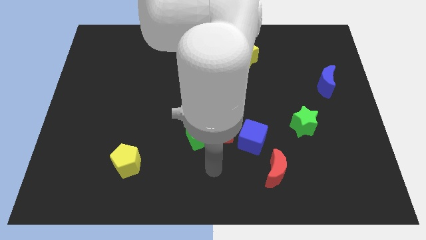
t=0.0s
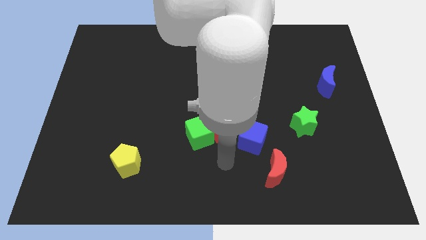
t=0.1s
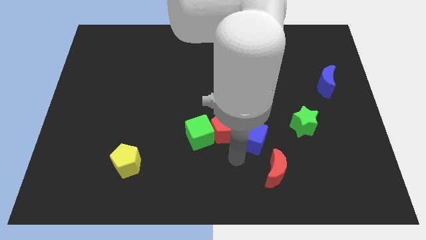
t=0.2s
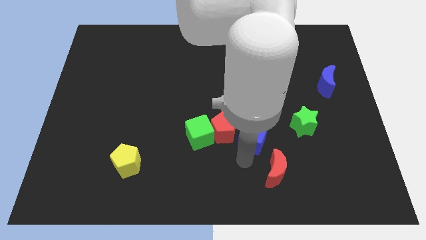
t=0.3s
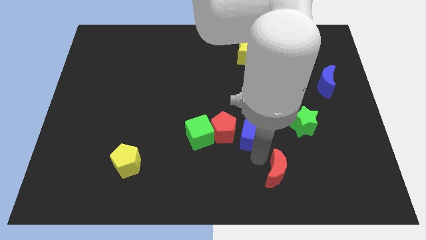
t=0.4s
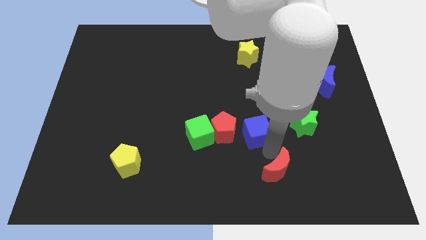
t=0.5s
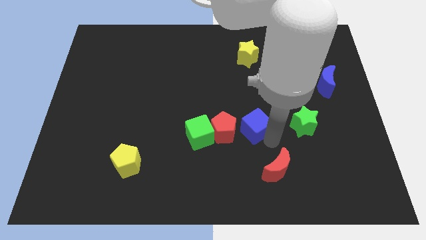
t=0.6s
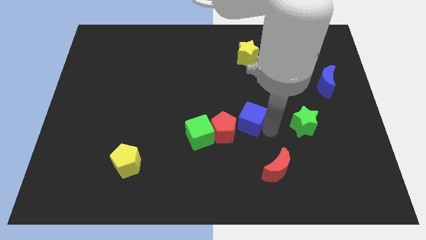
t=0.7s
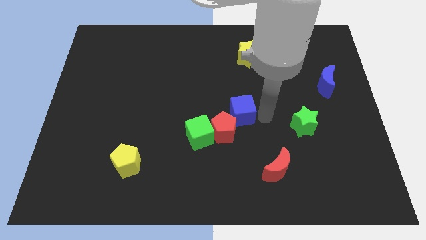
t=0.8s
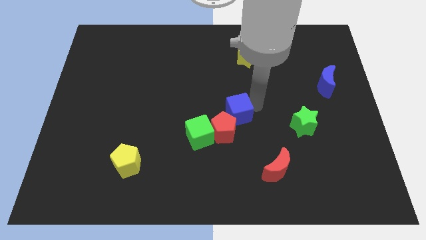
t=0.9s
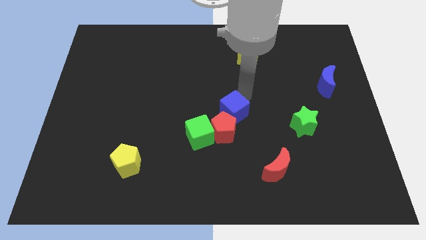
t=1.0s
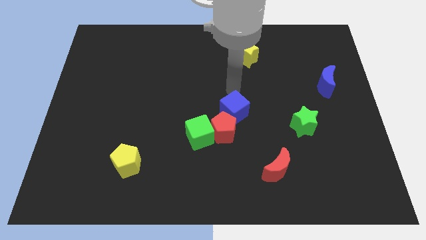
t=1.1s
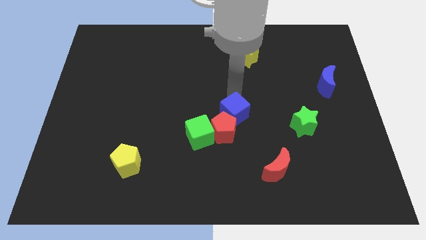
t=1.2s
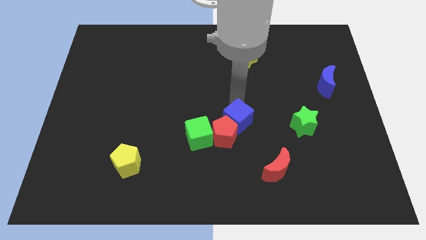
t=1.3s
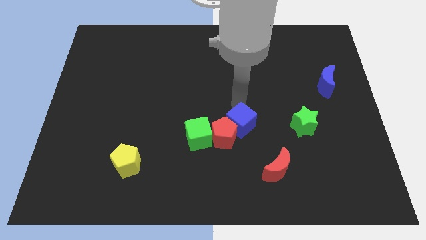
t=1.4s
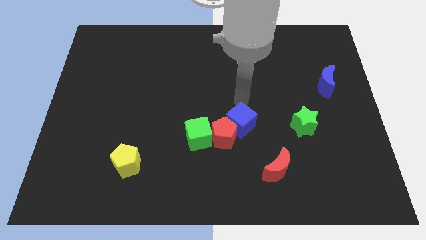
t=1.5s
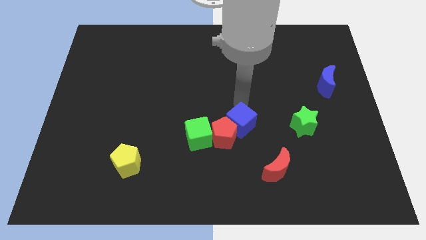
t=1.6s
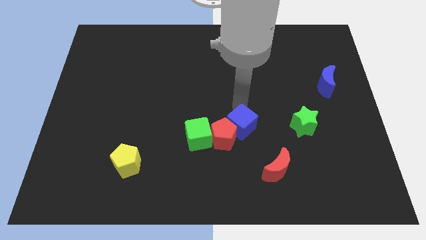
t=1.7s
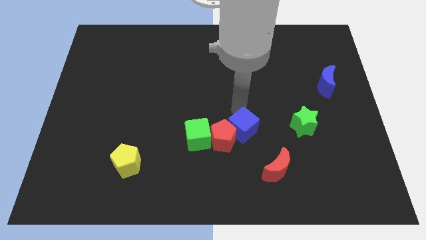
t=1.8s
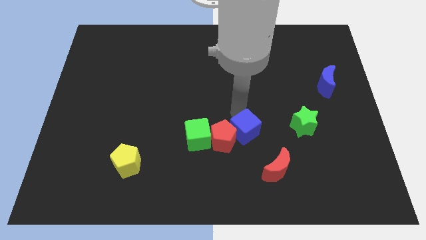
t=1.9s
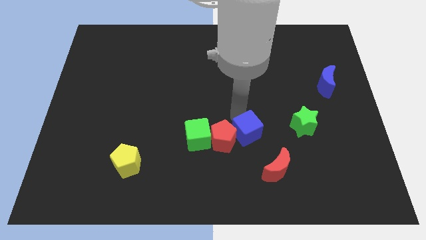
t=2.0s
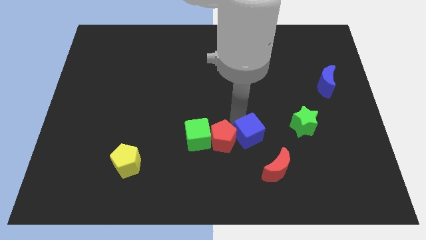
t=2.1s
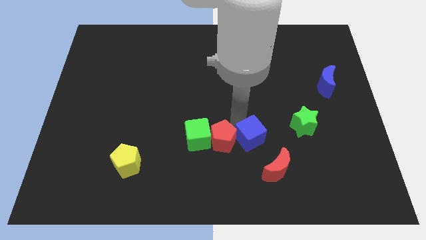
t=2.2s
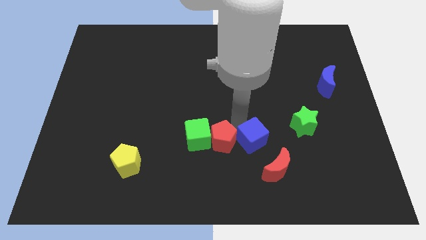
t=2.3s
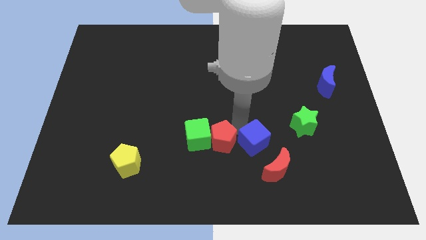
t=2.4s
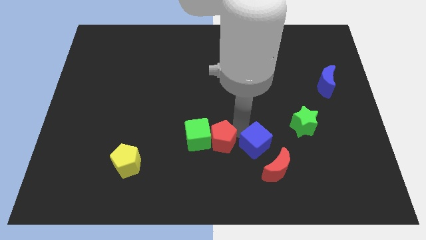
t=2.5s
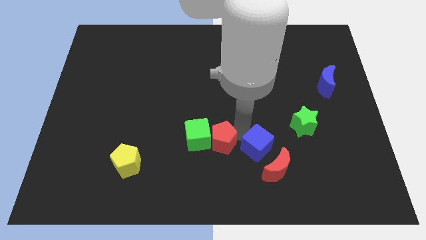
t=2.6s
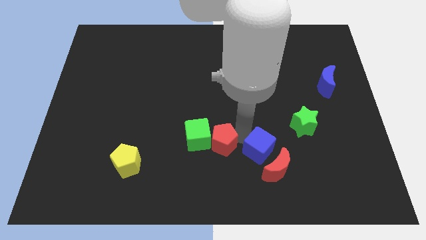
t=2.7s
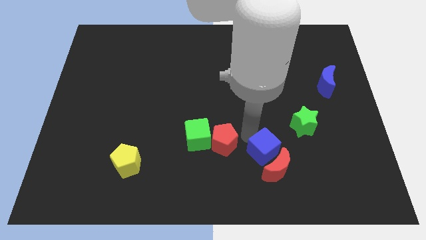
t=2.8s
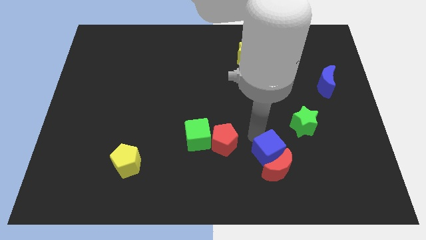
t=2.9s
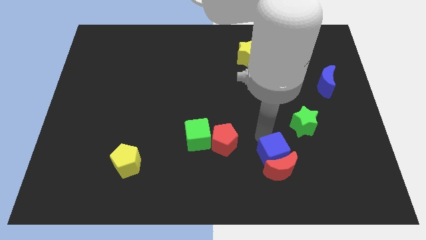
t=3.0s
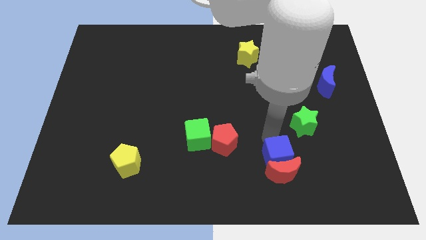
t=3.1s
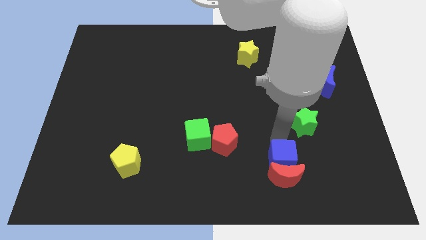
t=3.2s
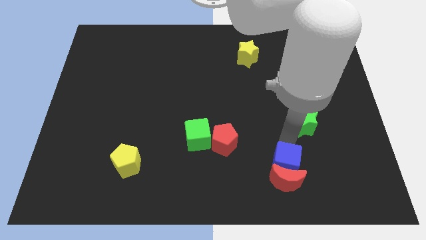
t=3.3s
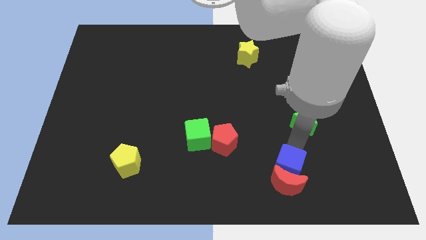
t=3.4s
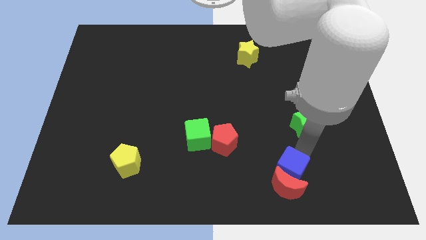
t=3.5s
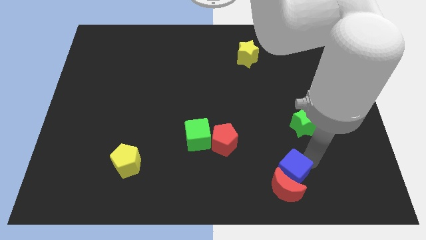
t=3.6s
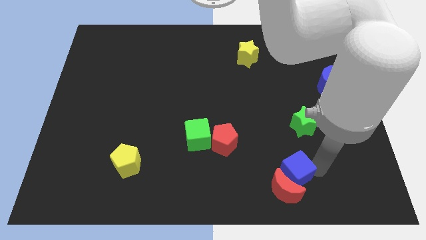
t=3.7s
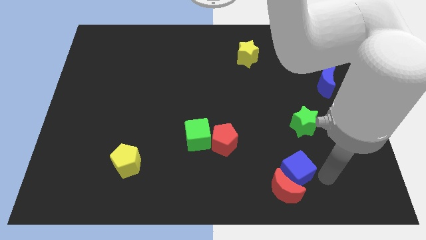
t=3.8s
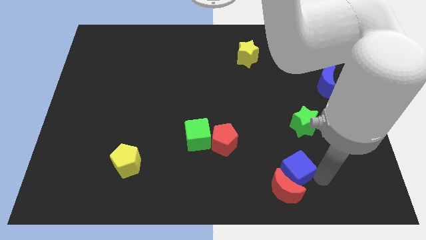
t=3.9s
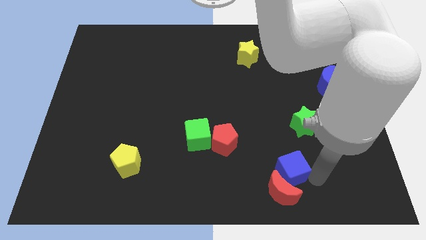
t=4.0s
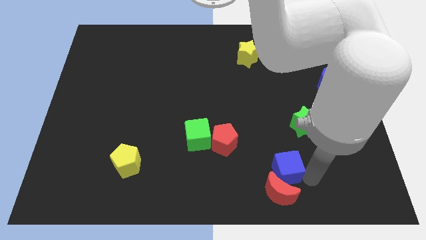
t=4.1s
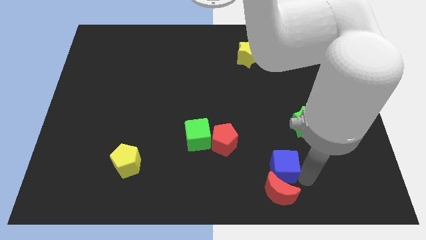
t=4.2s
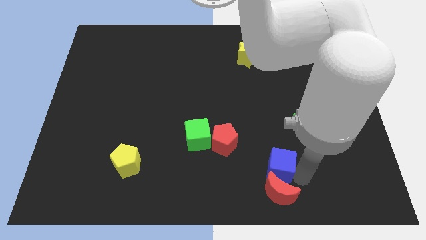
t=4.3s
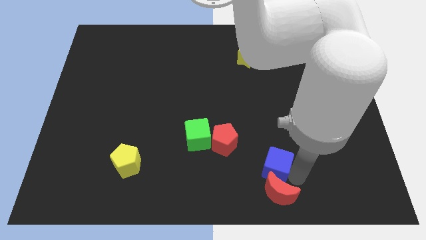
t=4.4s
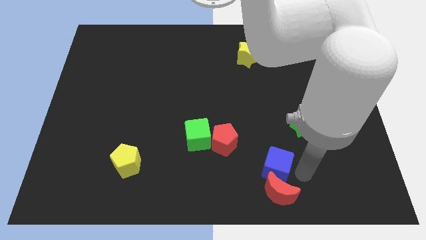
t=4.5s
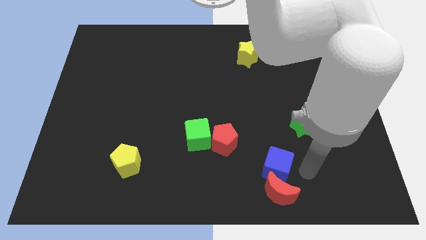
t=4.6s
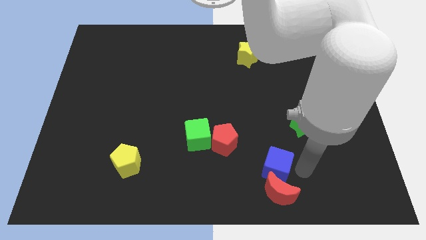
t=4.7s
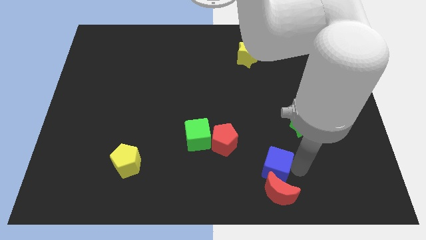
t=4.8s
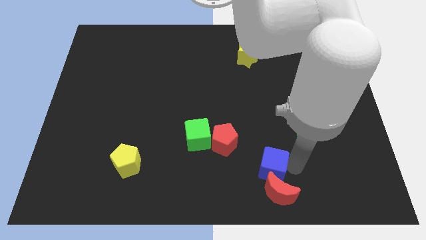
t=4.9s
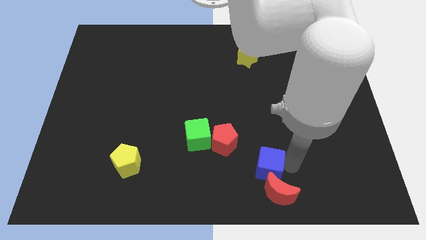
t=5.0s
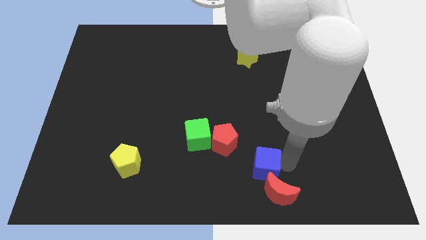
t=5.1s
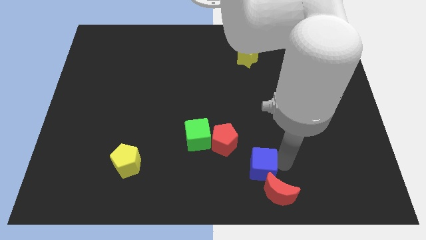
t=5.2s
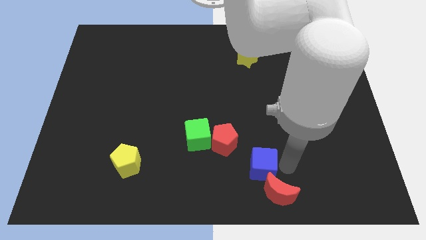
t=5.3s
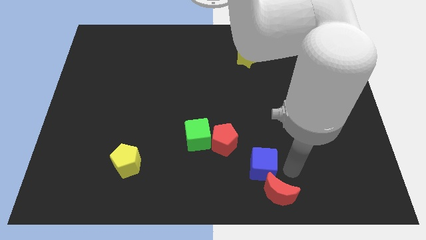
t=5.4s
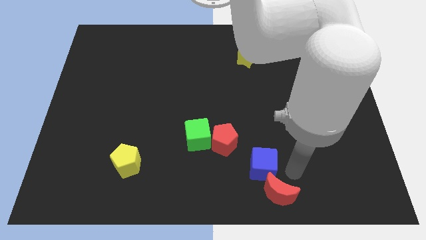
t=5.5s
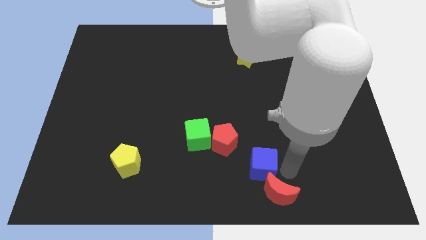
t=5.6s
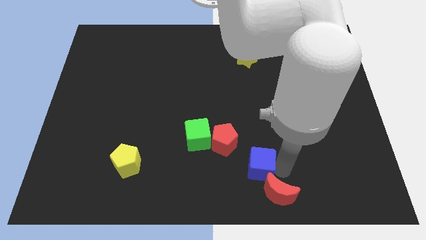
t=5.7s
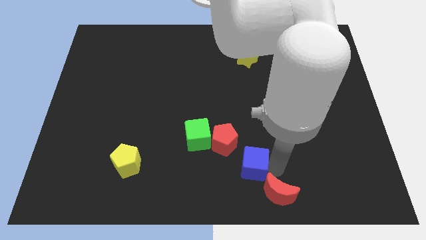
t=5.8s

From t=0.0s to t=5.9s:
push the blue cube to the bottom

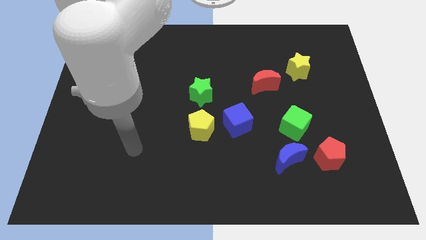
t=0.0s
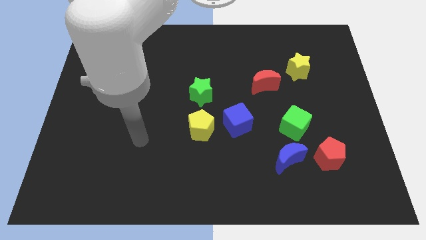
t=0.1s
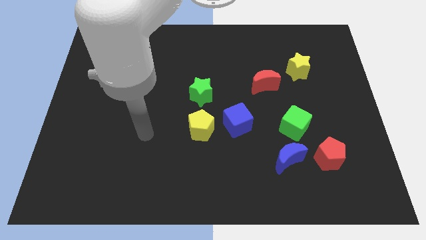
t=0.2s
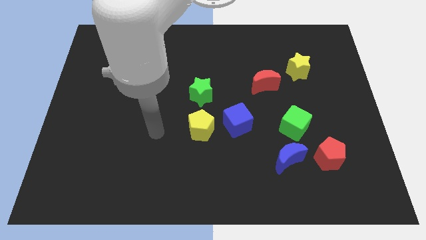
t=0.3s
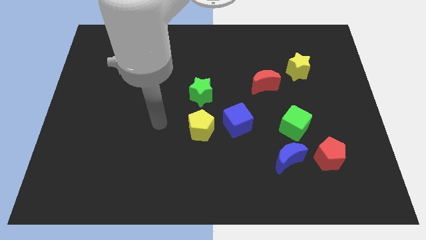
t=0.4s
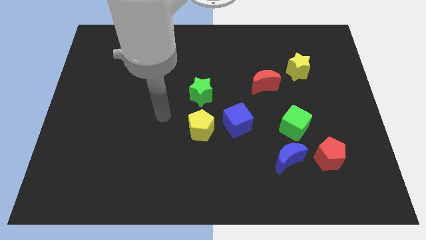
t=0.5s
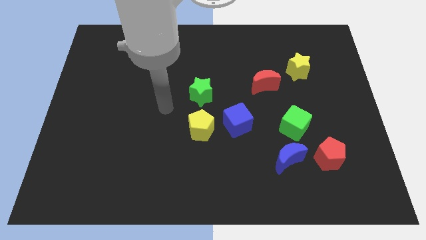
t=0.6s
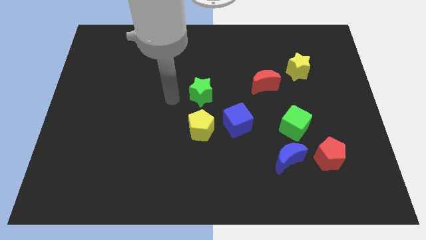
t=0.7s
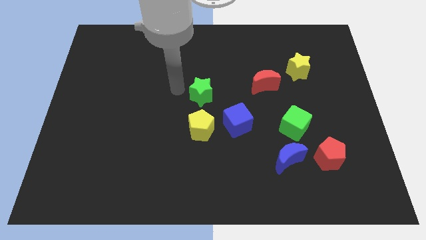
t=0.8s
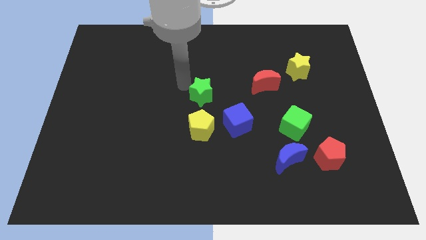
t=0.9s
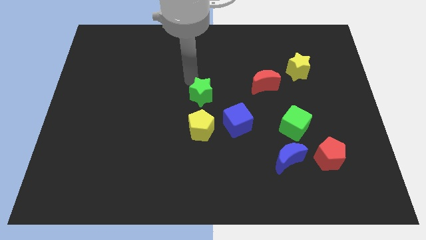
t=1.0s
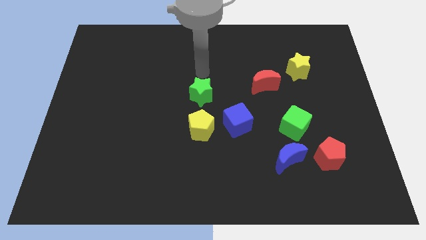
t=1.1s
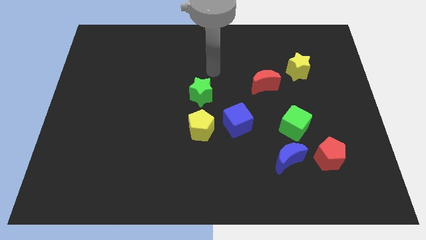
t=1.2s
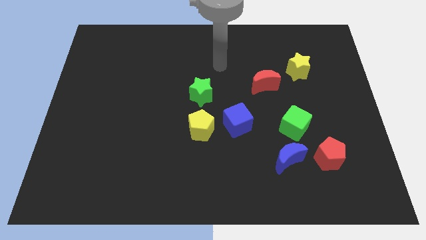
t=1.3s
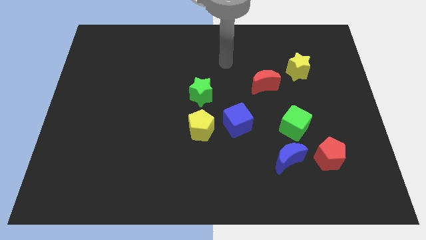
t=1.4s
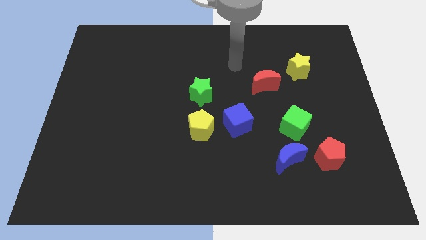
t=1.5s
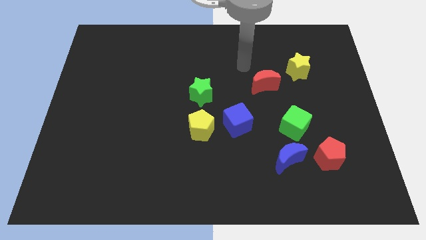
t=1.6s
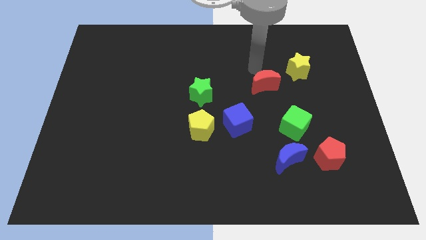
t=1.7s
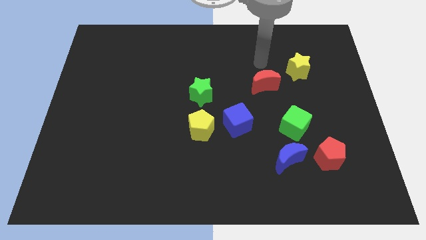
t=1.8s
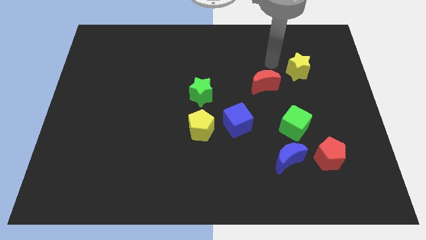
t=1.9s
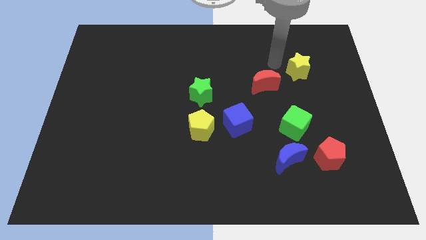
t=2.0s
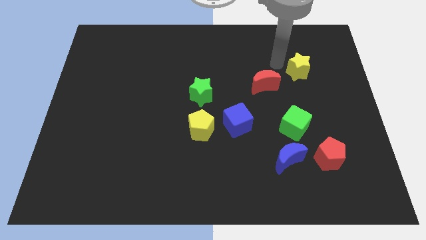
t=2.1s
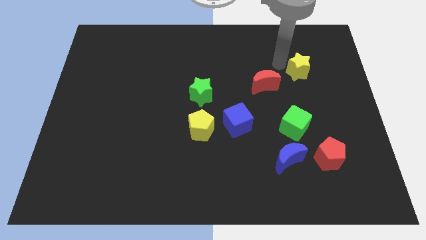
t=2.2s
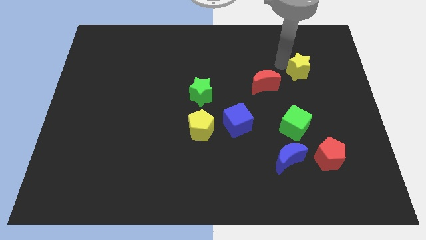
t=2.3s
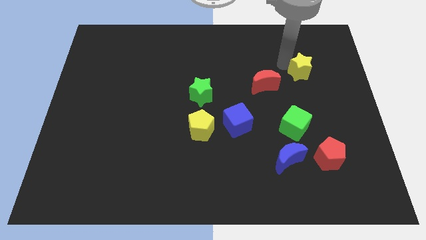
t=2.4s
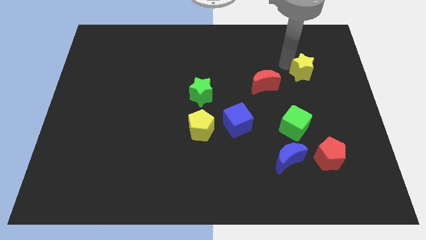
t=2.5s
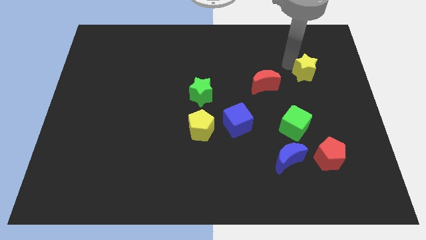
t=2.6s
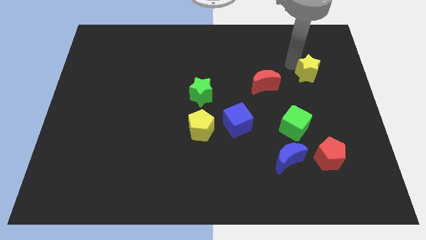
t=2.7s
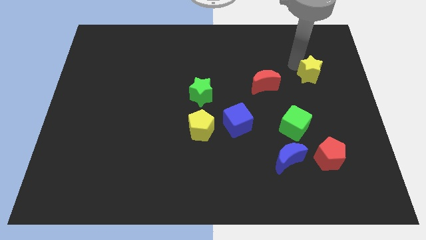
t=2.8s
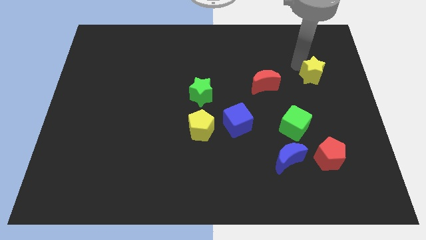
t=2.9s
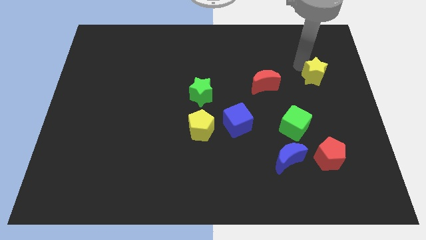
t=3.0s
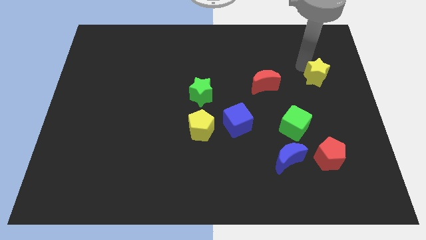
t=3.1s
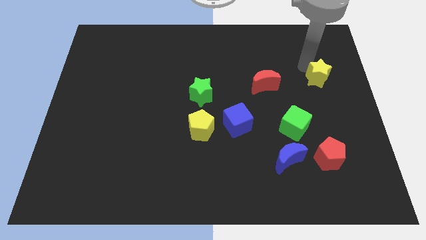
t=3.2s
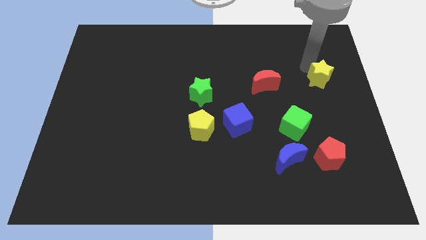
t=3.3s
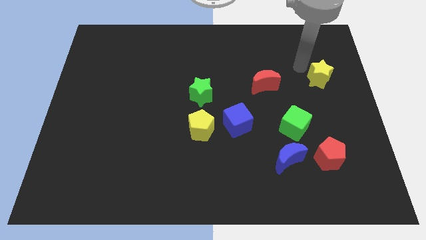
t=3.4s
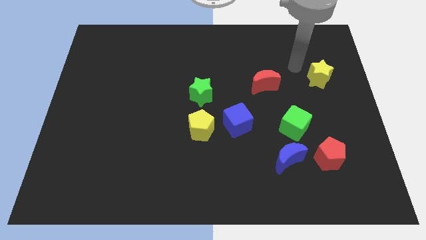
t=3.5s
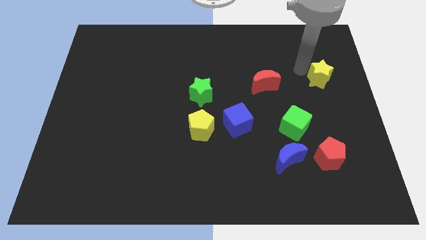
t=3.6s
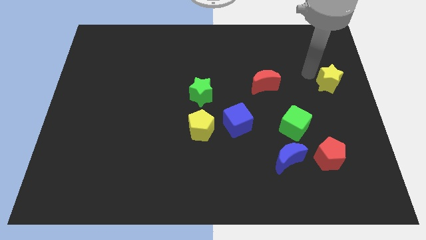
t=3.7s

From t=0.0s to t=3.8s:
push the yellow star to the center right
